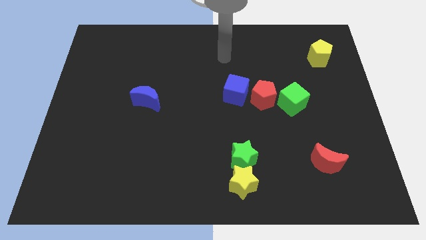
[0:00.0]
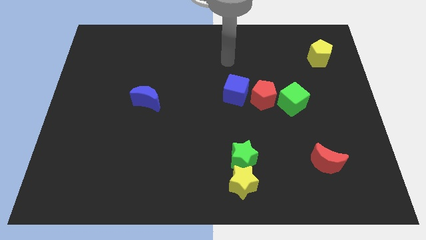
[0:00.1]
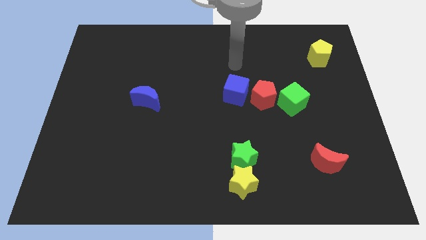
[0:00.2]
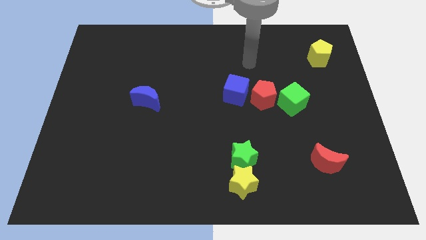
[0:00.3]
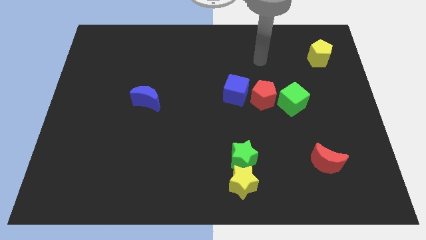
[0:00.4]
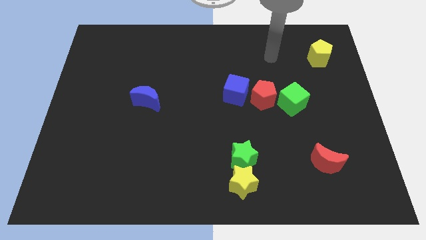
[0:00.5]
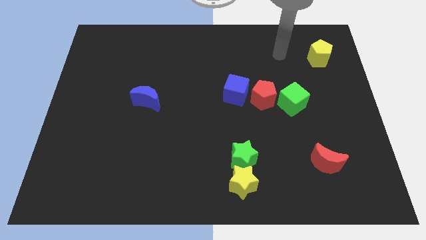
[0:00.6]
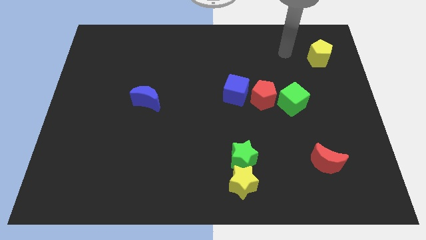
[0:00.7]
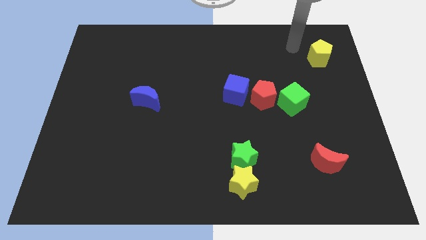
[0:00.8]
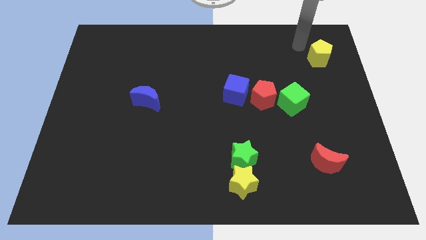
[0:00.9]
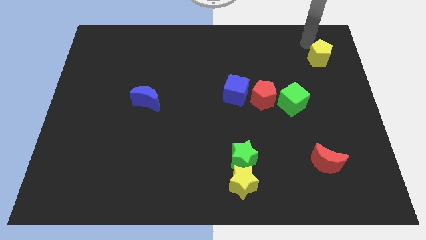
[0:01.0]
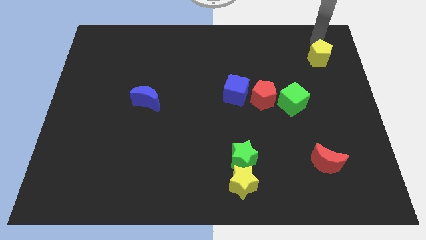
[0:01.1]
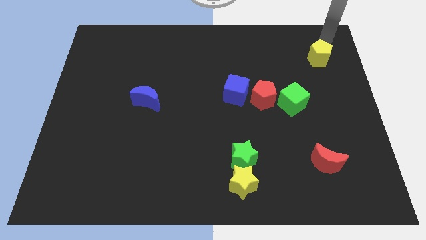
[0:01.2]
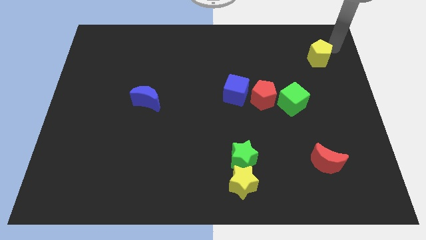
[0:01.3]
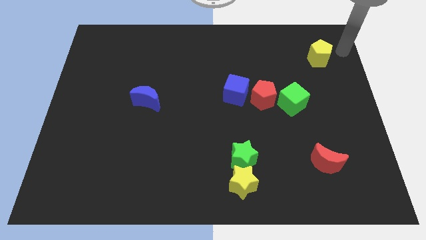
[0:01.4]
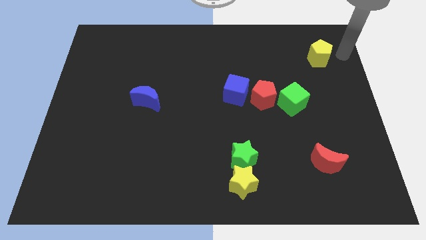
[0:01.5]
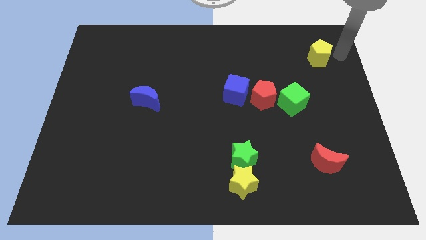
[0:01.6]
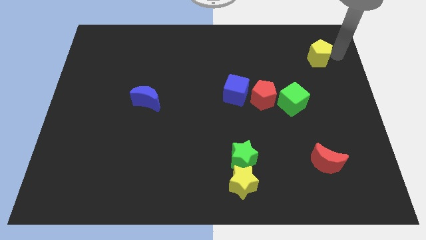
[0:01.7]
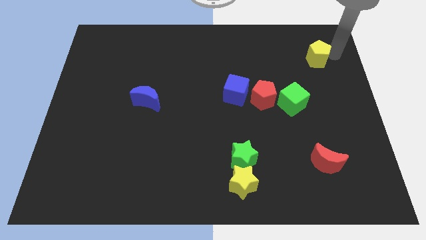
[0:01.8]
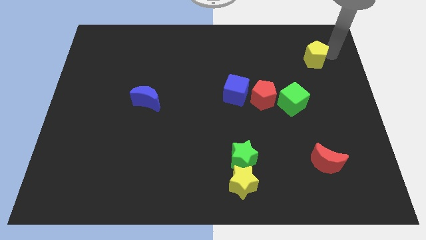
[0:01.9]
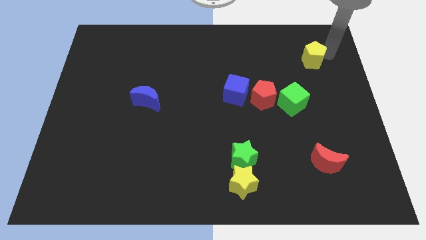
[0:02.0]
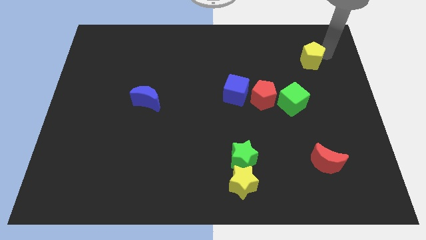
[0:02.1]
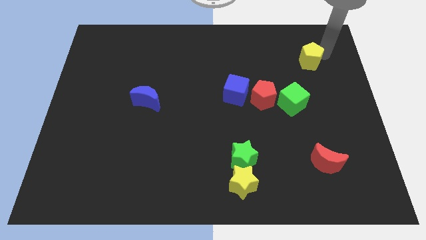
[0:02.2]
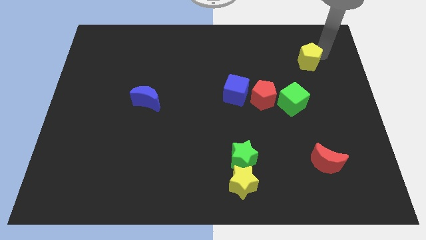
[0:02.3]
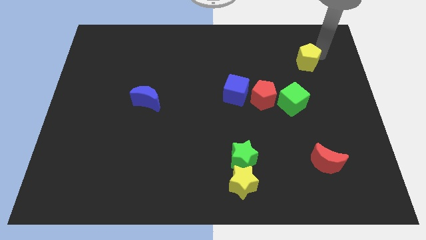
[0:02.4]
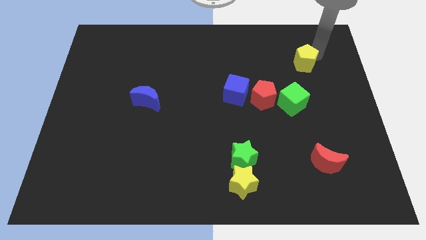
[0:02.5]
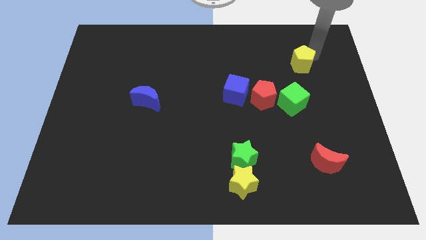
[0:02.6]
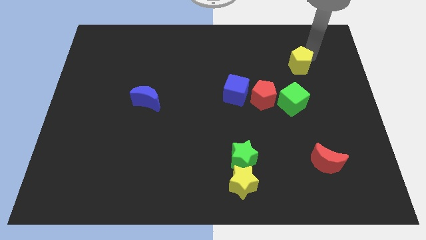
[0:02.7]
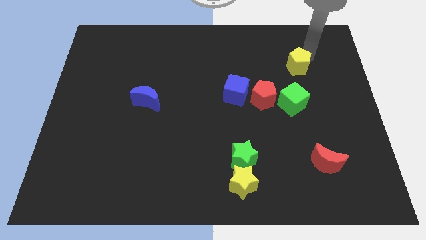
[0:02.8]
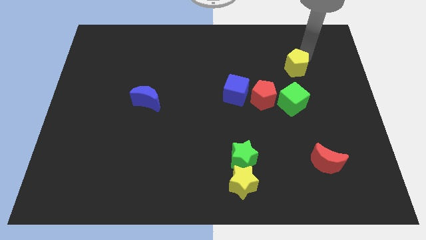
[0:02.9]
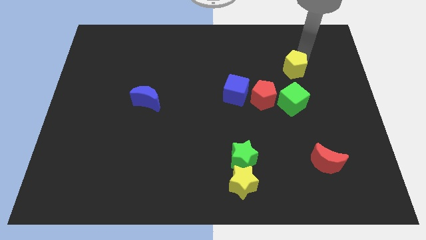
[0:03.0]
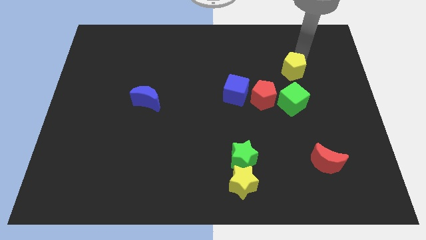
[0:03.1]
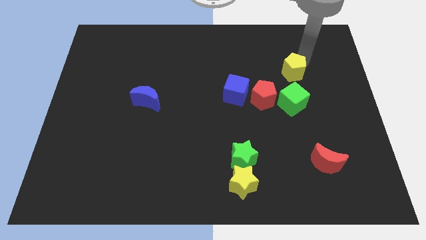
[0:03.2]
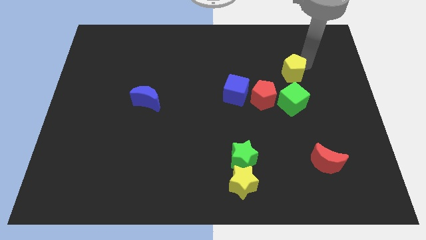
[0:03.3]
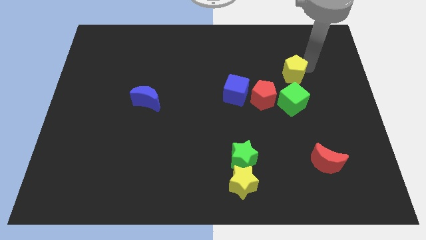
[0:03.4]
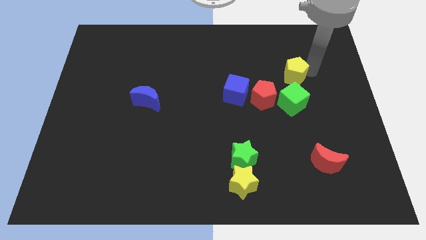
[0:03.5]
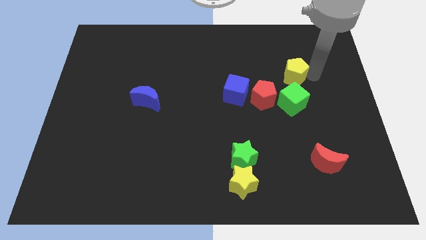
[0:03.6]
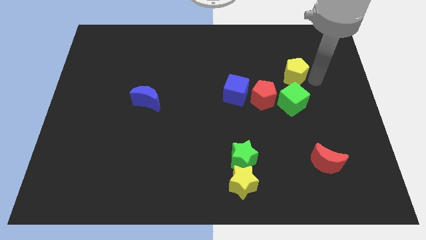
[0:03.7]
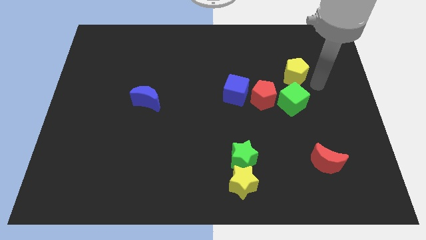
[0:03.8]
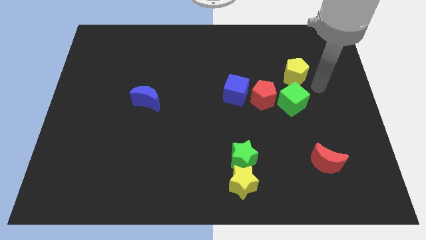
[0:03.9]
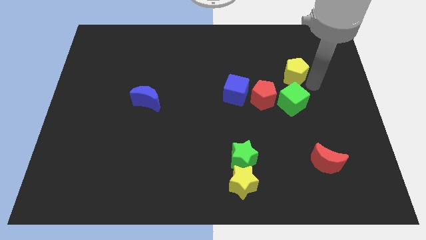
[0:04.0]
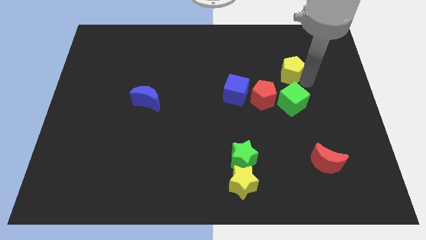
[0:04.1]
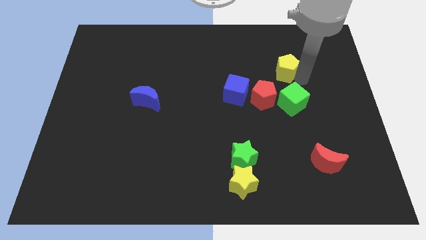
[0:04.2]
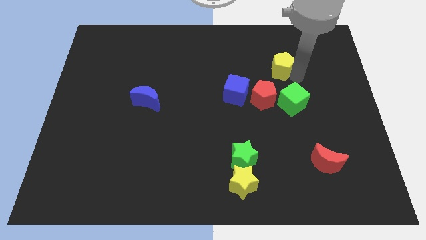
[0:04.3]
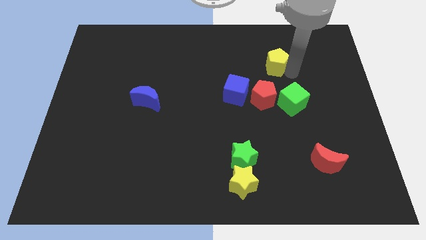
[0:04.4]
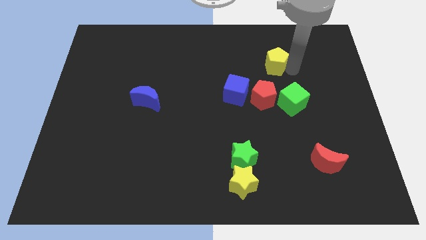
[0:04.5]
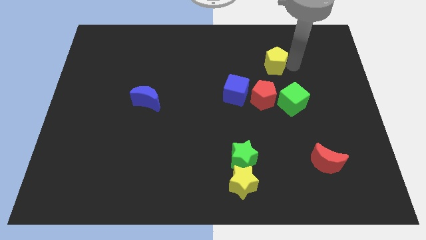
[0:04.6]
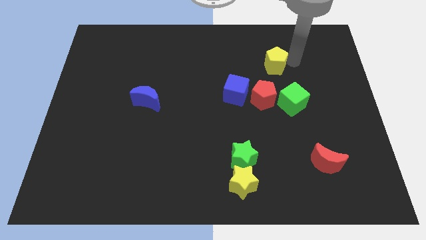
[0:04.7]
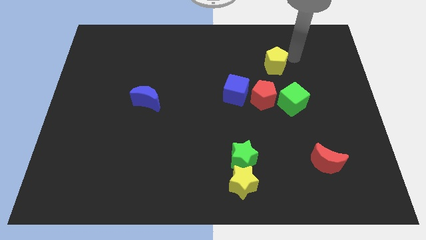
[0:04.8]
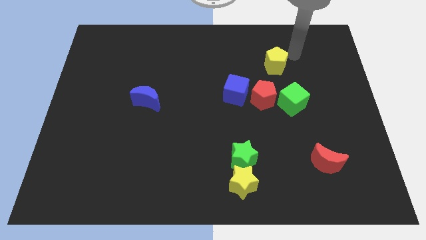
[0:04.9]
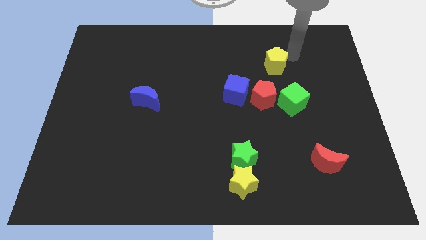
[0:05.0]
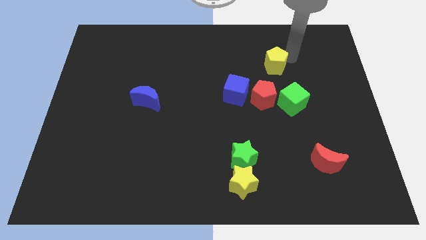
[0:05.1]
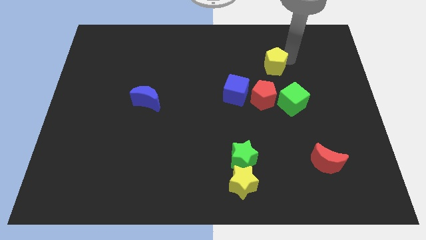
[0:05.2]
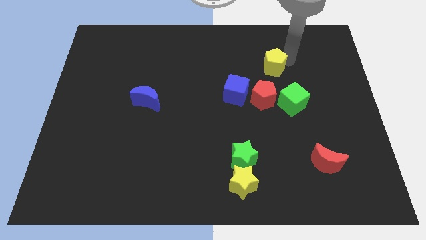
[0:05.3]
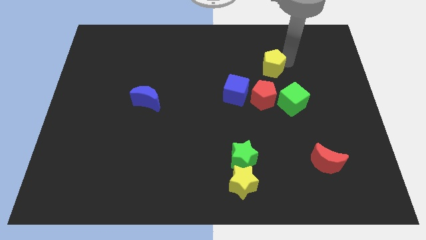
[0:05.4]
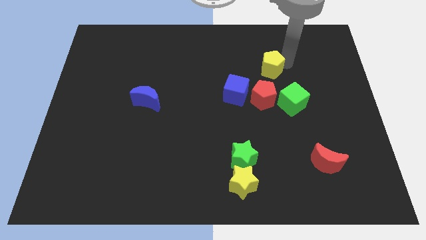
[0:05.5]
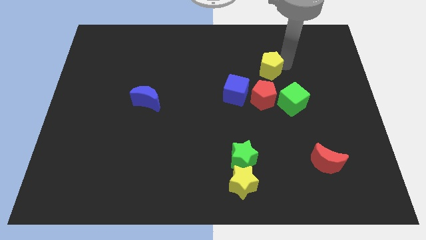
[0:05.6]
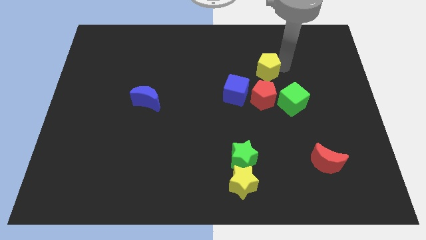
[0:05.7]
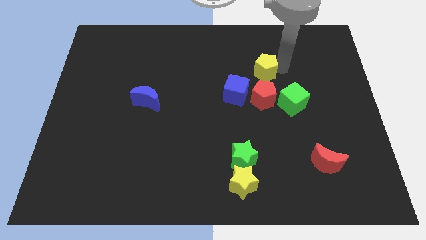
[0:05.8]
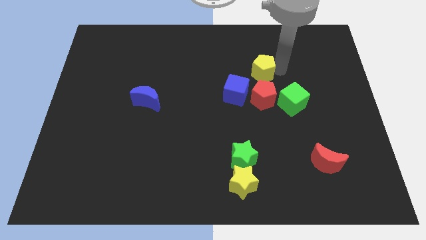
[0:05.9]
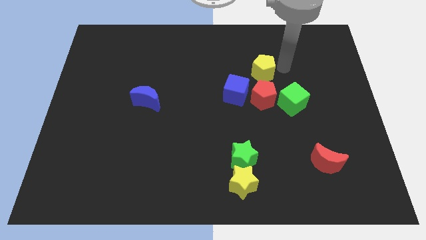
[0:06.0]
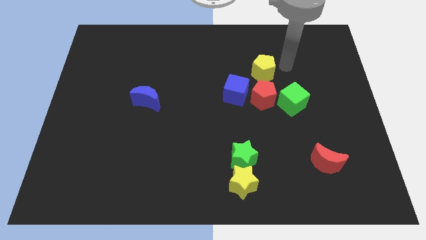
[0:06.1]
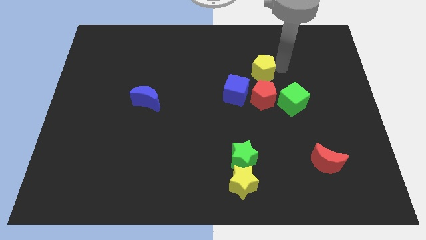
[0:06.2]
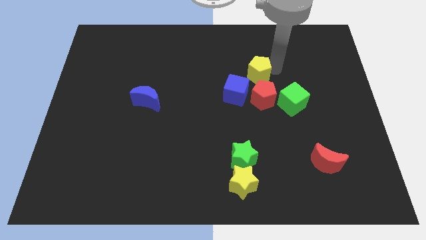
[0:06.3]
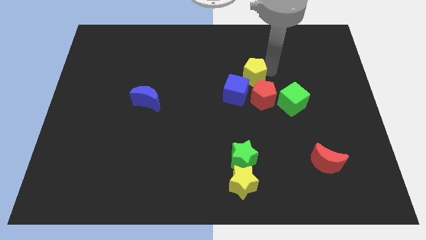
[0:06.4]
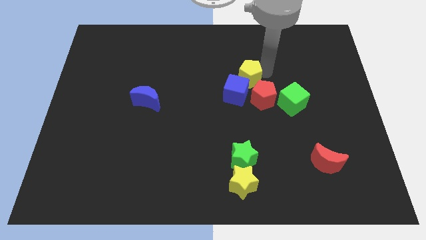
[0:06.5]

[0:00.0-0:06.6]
move the yellow pentagon to the middle of the board
